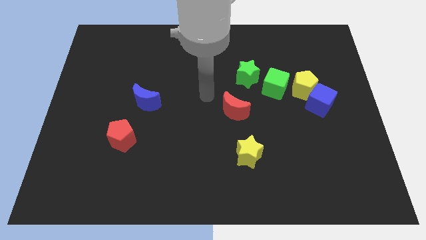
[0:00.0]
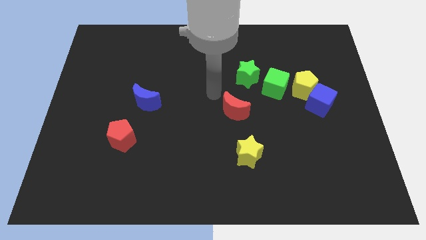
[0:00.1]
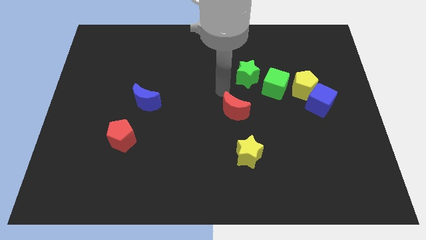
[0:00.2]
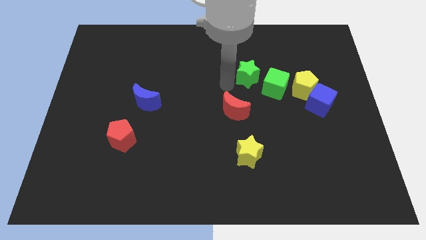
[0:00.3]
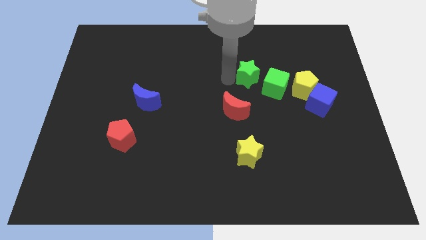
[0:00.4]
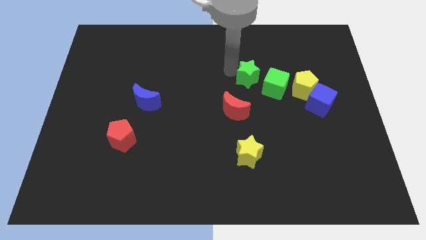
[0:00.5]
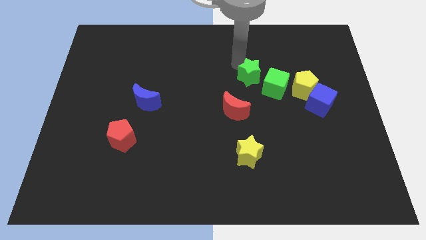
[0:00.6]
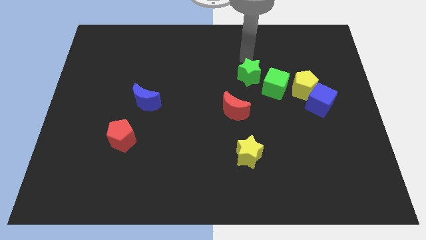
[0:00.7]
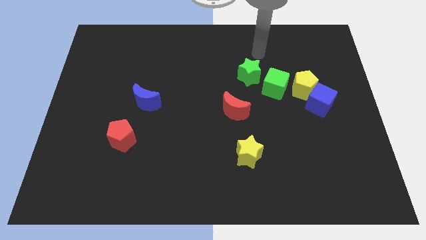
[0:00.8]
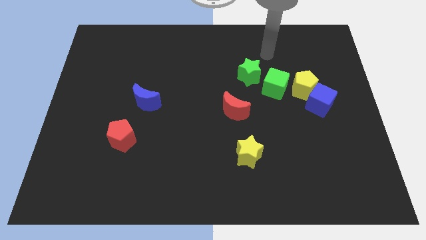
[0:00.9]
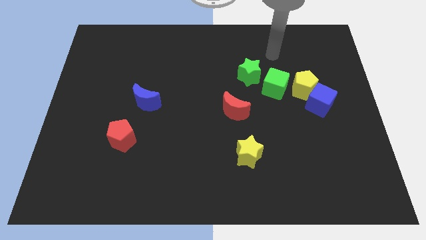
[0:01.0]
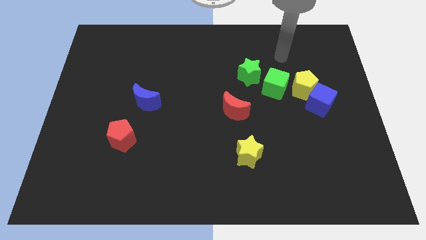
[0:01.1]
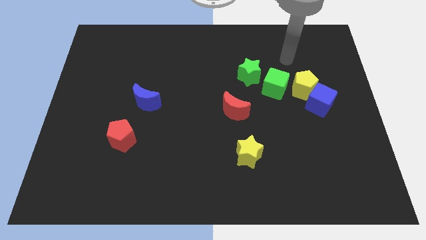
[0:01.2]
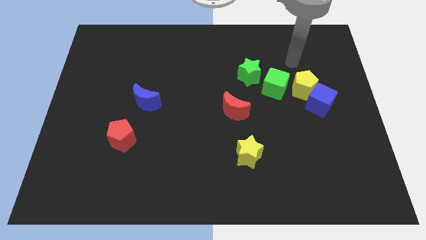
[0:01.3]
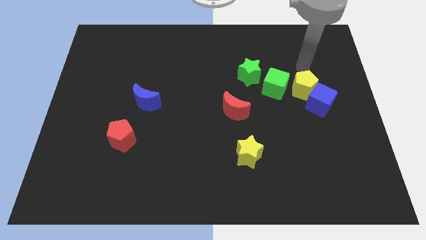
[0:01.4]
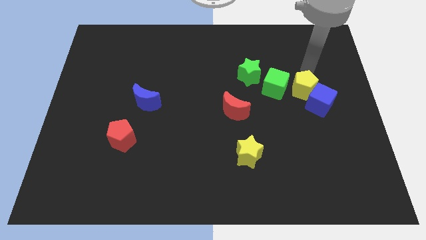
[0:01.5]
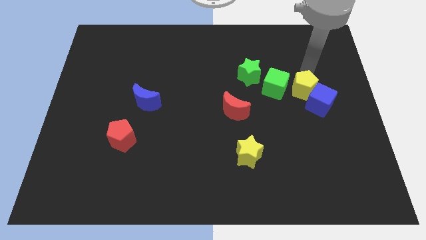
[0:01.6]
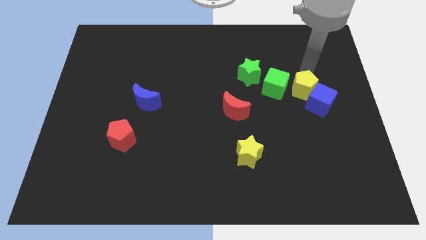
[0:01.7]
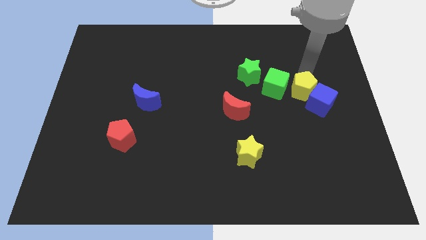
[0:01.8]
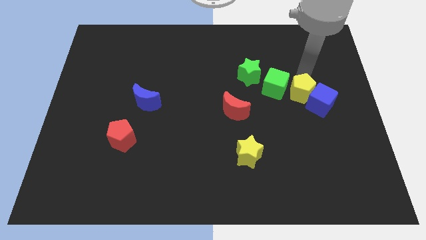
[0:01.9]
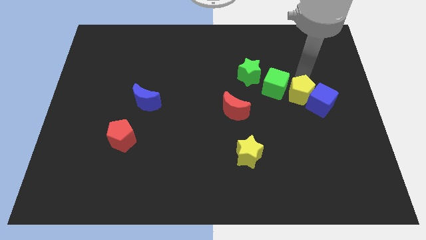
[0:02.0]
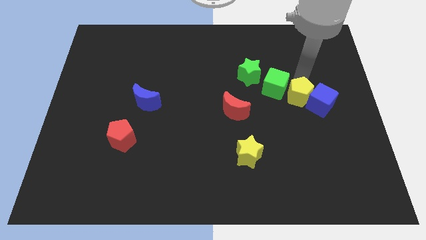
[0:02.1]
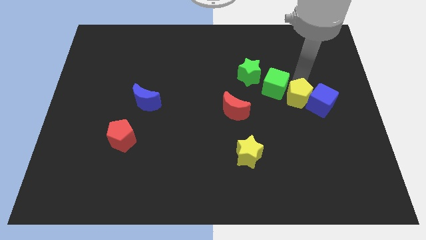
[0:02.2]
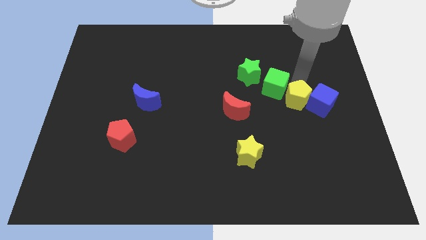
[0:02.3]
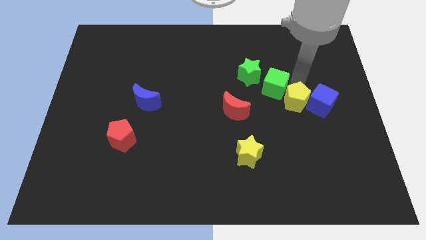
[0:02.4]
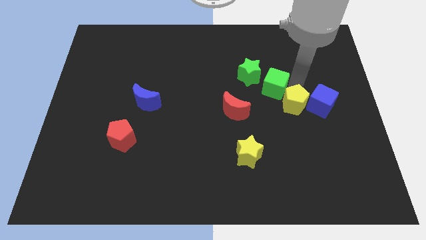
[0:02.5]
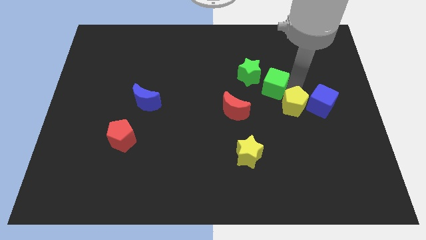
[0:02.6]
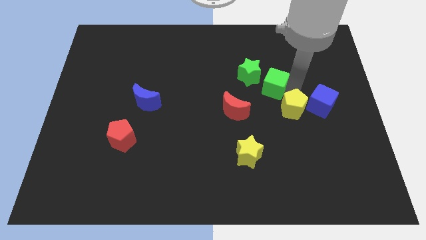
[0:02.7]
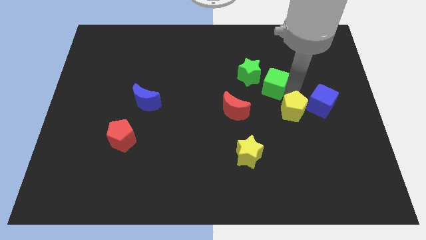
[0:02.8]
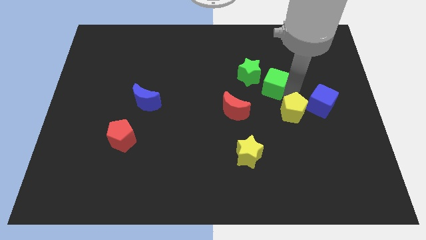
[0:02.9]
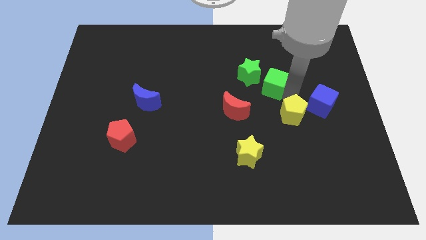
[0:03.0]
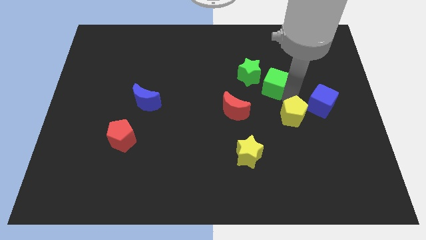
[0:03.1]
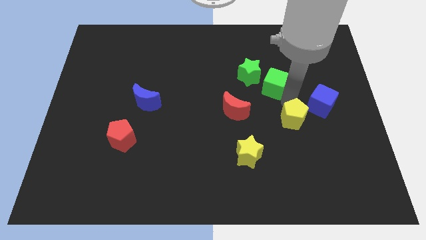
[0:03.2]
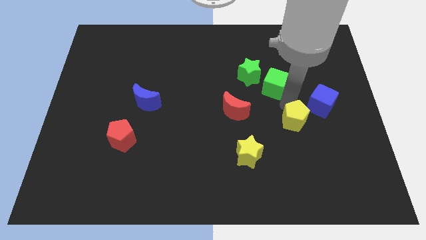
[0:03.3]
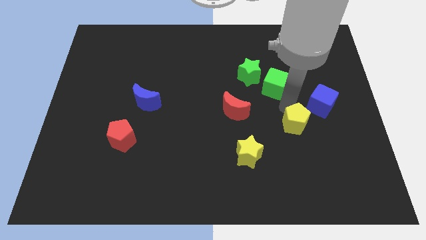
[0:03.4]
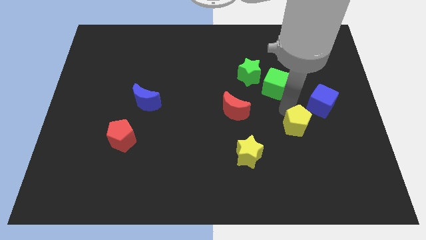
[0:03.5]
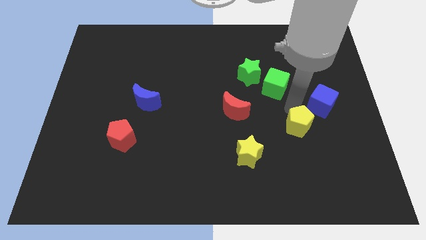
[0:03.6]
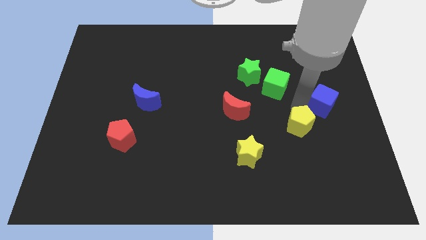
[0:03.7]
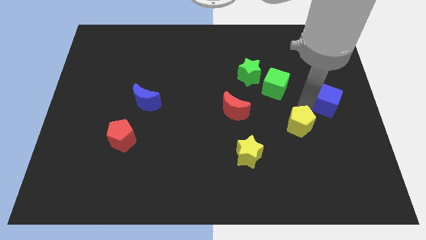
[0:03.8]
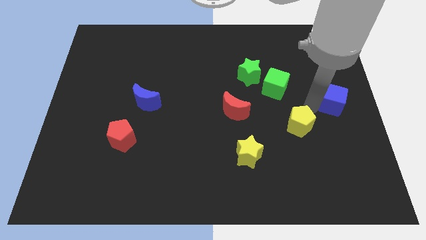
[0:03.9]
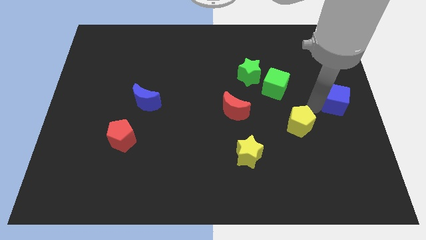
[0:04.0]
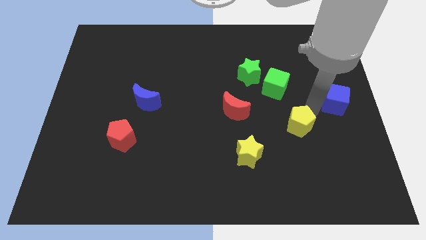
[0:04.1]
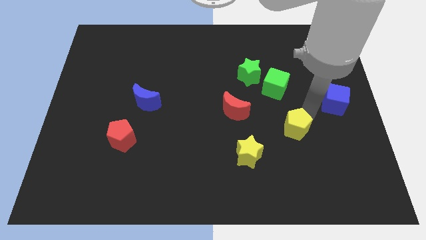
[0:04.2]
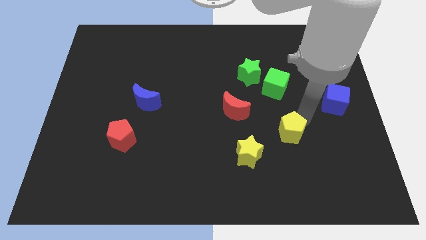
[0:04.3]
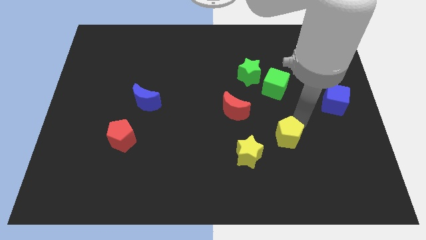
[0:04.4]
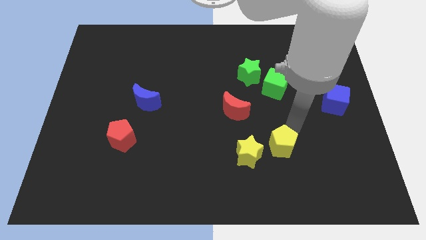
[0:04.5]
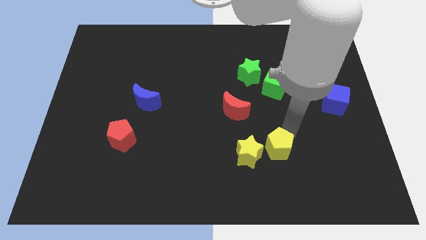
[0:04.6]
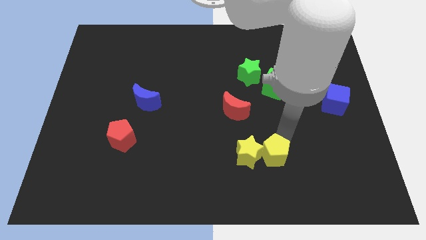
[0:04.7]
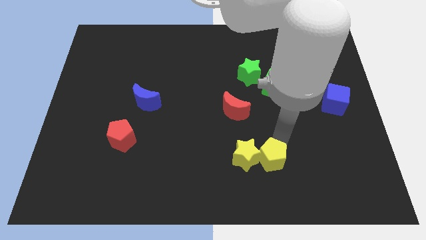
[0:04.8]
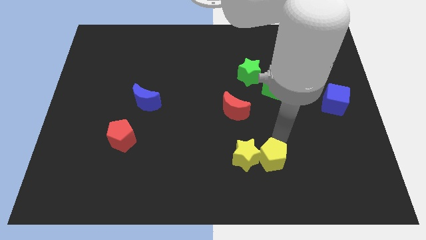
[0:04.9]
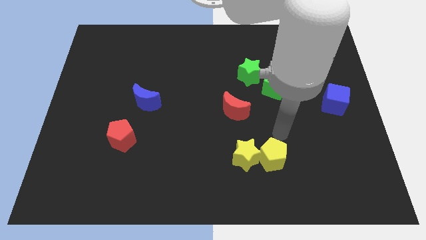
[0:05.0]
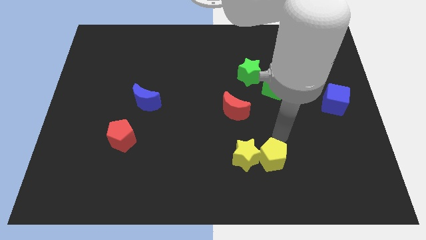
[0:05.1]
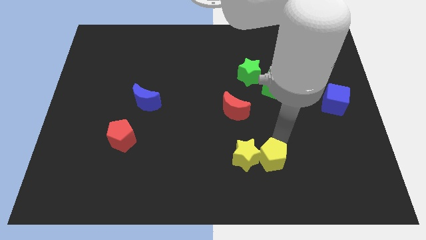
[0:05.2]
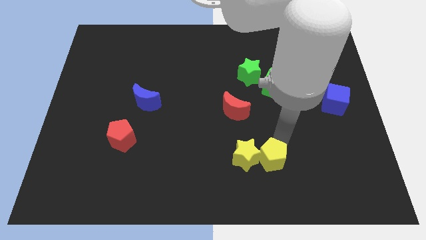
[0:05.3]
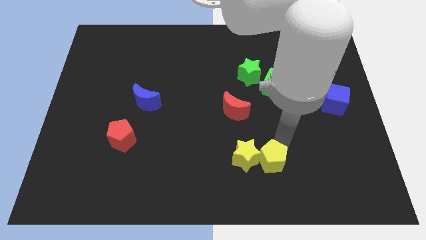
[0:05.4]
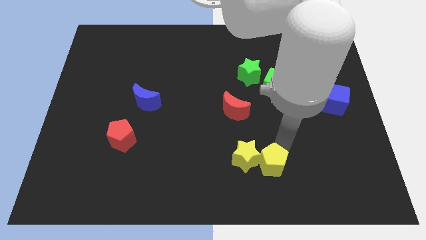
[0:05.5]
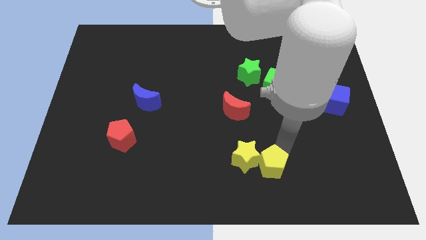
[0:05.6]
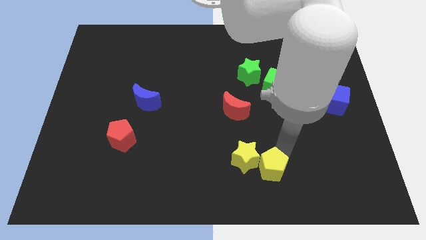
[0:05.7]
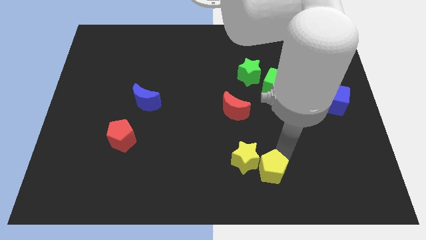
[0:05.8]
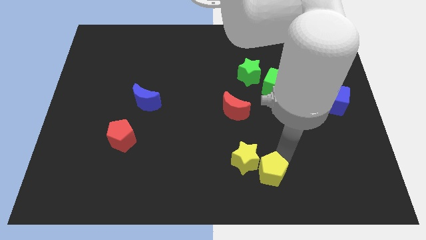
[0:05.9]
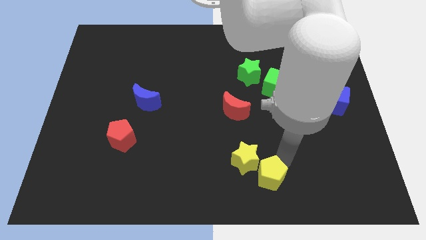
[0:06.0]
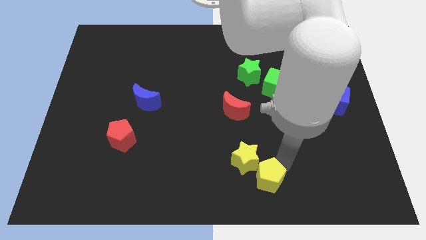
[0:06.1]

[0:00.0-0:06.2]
slide the yellow pentagon to the bottom
